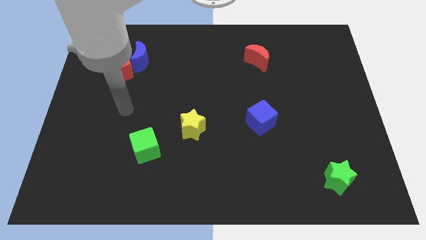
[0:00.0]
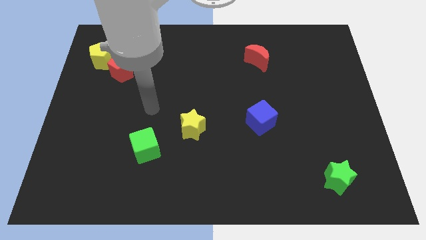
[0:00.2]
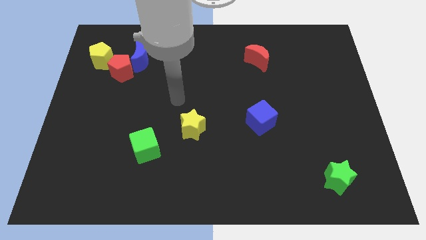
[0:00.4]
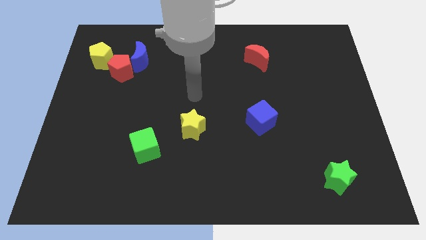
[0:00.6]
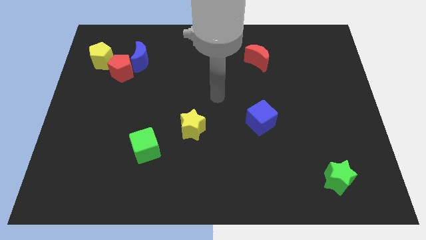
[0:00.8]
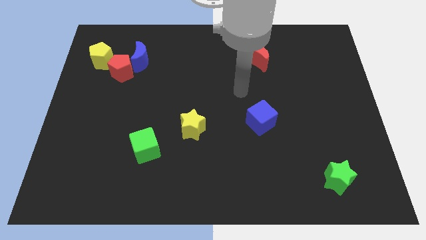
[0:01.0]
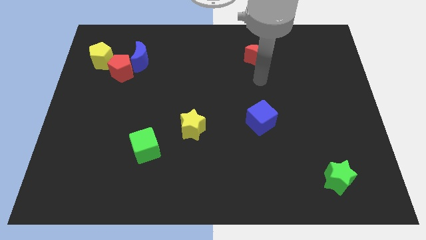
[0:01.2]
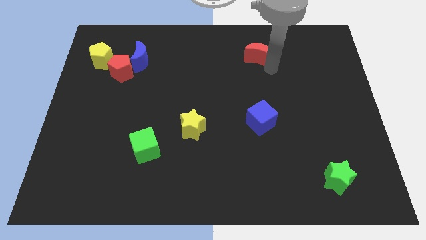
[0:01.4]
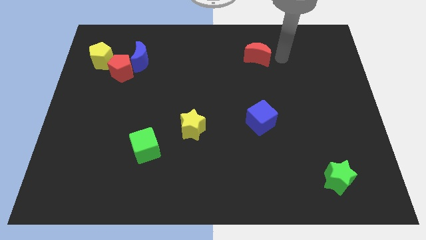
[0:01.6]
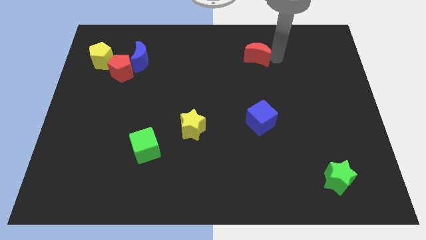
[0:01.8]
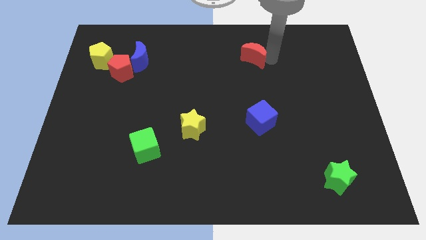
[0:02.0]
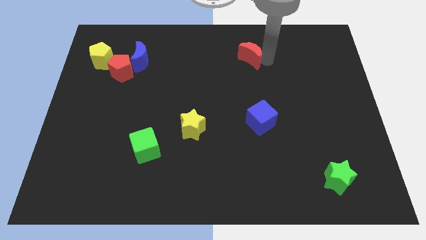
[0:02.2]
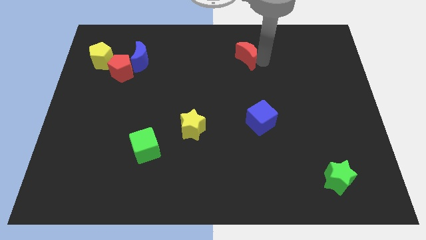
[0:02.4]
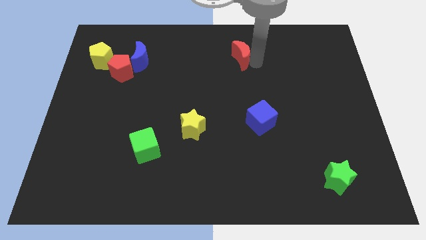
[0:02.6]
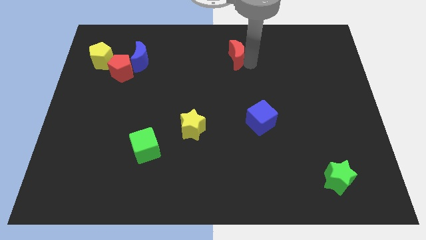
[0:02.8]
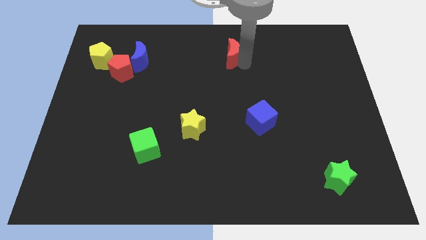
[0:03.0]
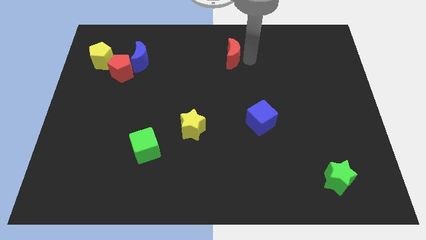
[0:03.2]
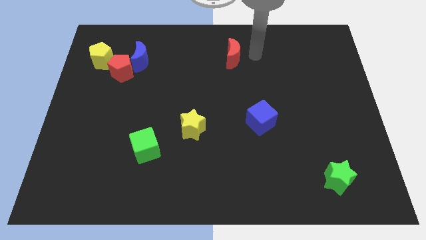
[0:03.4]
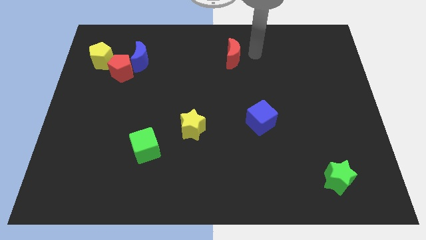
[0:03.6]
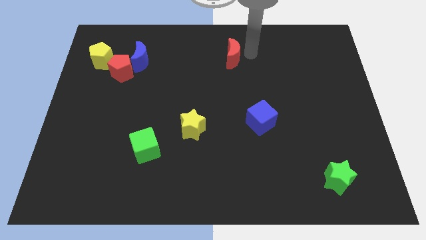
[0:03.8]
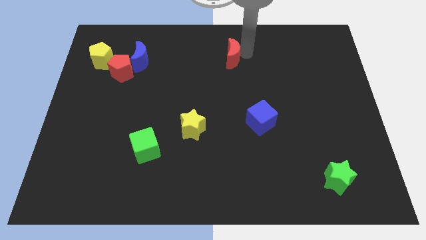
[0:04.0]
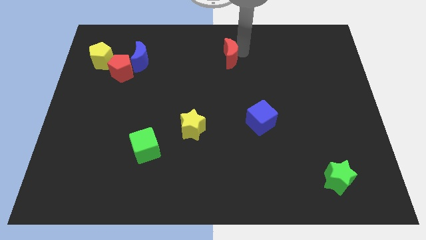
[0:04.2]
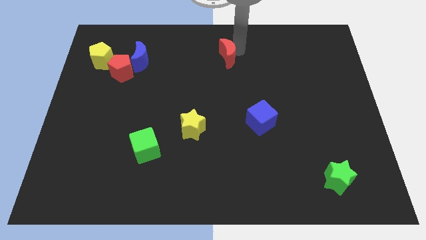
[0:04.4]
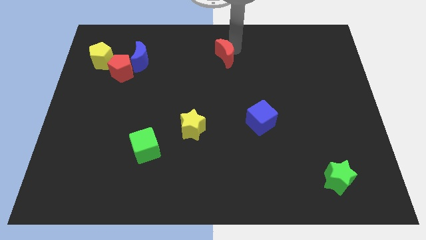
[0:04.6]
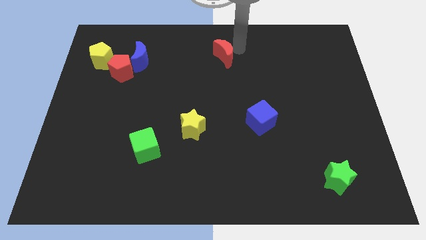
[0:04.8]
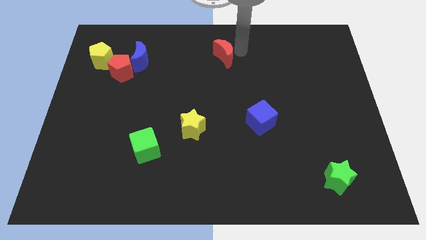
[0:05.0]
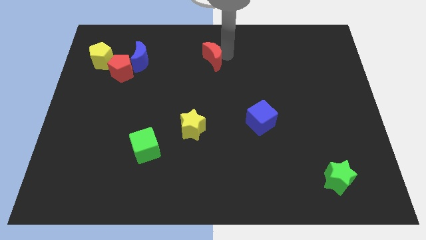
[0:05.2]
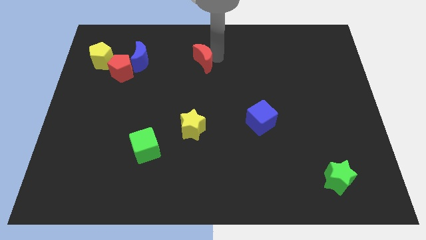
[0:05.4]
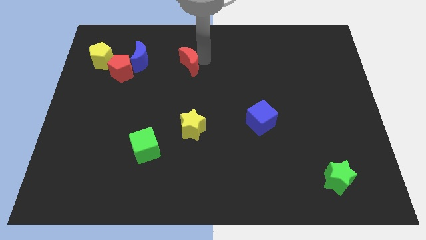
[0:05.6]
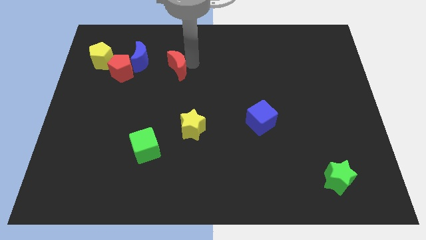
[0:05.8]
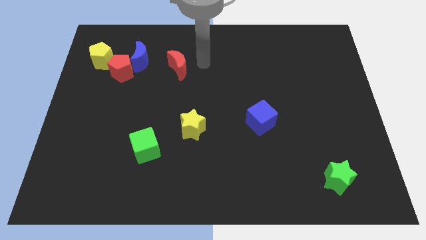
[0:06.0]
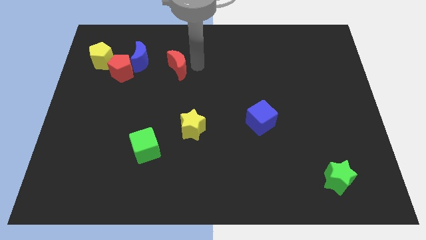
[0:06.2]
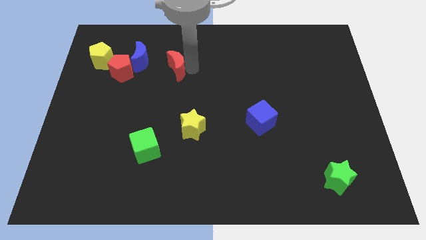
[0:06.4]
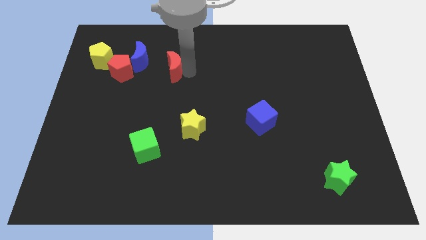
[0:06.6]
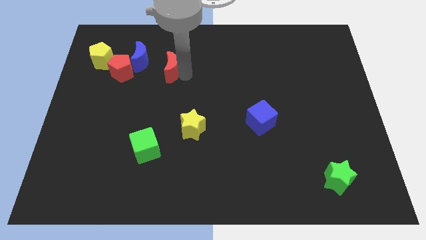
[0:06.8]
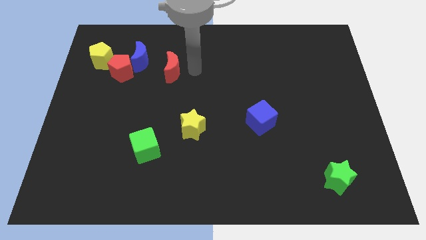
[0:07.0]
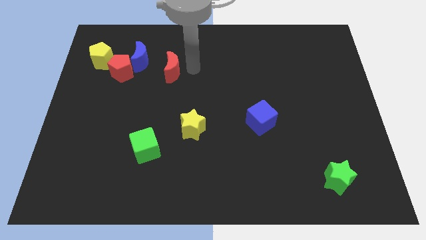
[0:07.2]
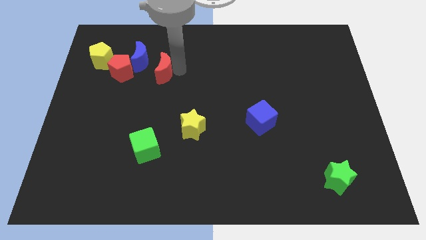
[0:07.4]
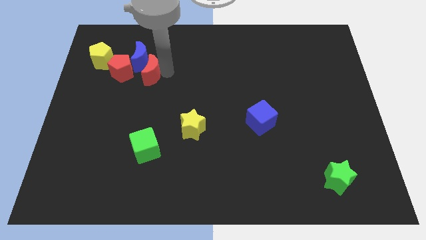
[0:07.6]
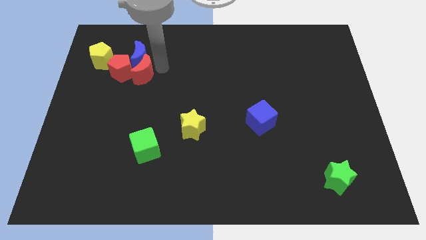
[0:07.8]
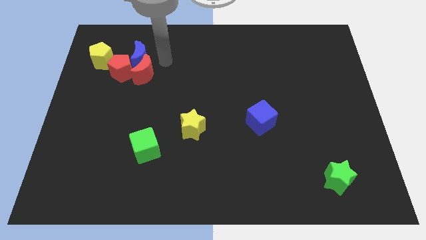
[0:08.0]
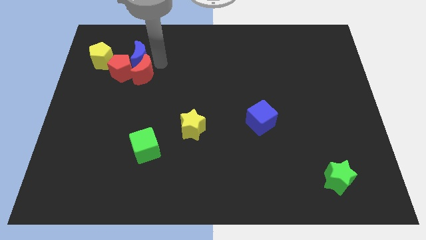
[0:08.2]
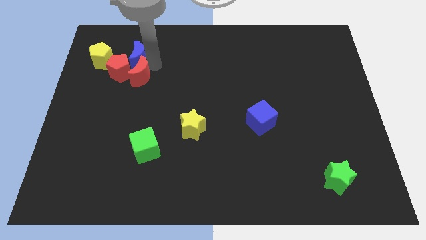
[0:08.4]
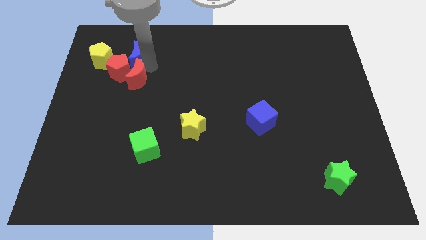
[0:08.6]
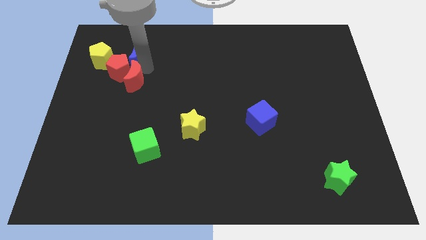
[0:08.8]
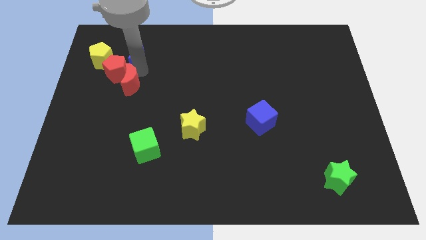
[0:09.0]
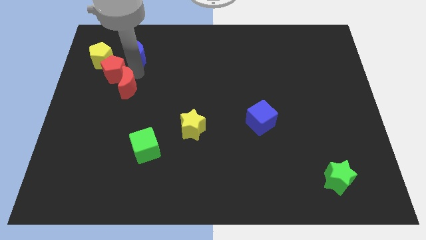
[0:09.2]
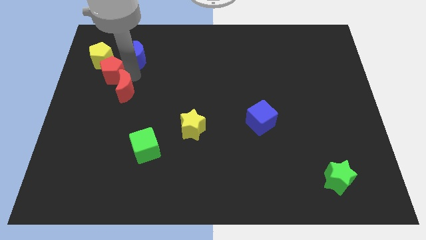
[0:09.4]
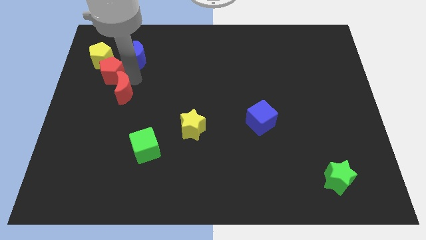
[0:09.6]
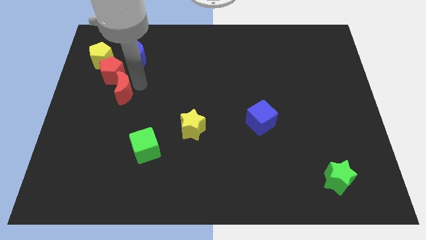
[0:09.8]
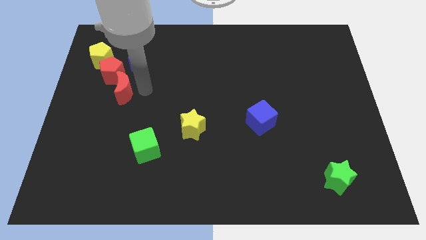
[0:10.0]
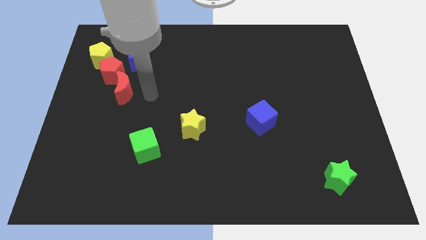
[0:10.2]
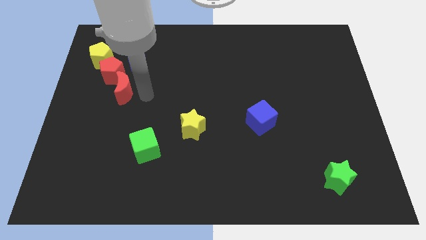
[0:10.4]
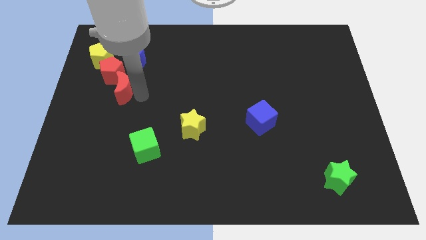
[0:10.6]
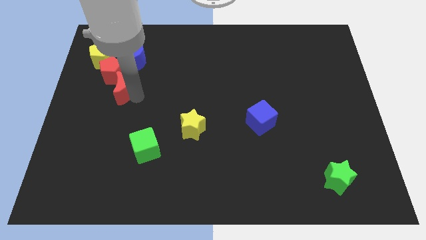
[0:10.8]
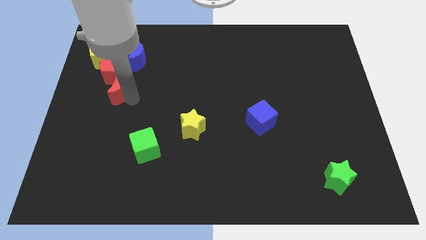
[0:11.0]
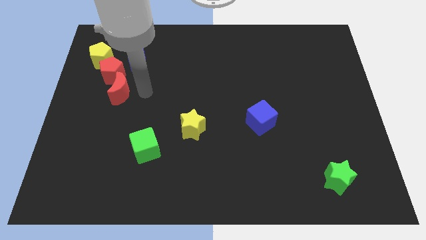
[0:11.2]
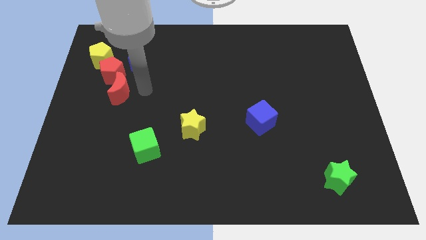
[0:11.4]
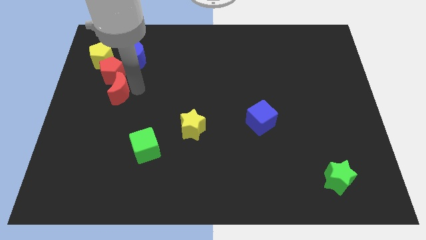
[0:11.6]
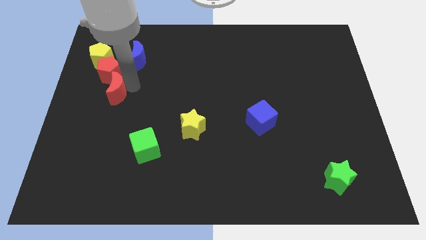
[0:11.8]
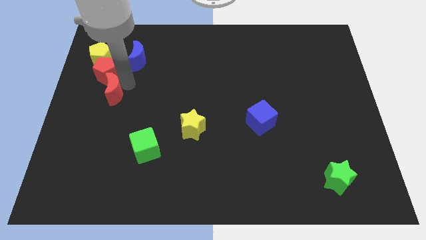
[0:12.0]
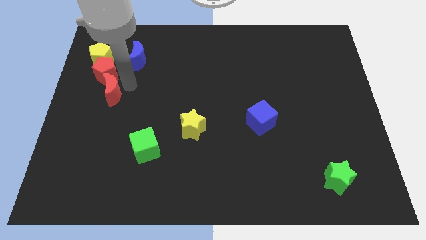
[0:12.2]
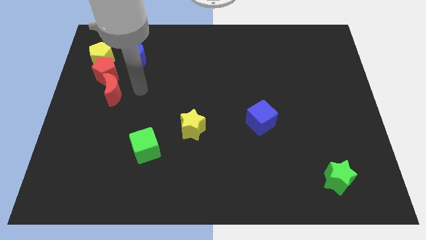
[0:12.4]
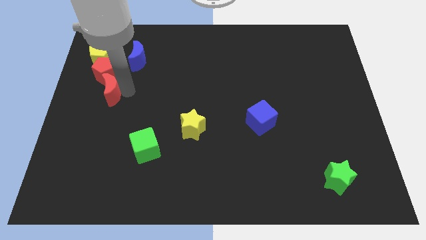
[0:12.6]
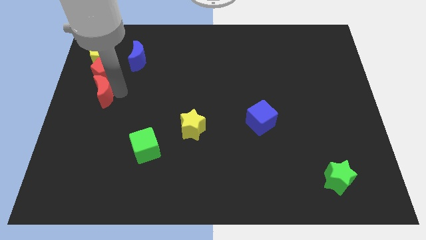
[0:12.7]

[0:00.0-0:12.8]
put the red moon to the center left
